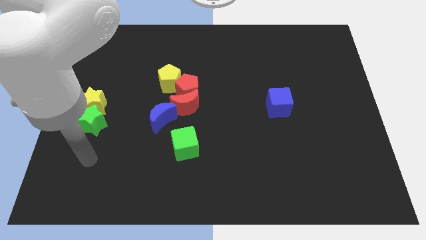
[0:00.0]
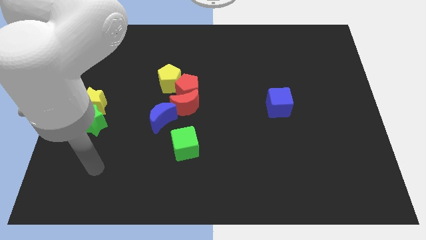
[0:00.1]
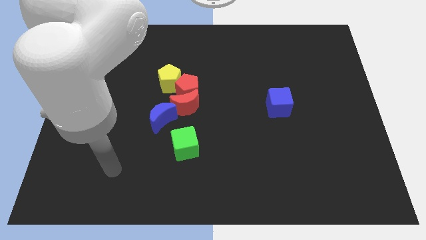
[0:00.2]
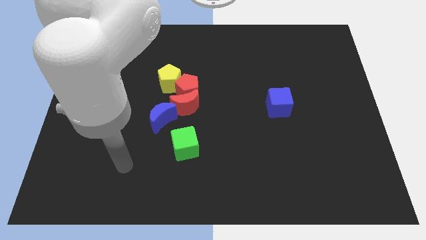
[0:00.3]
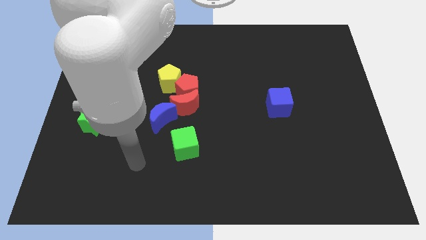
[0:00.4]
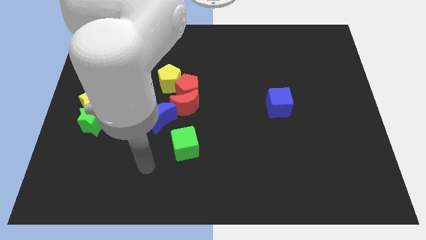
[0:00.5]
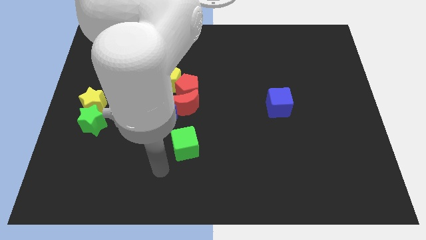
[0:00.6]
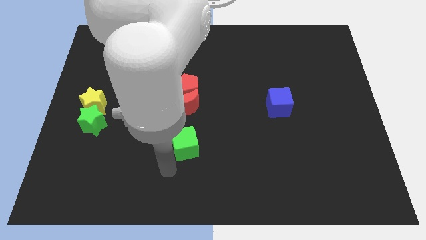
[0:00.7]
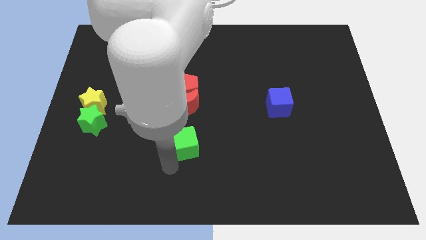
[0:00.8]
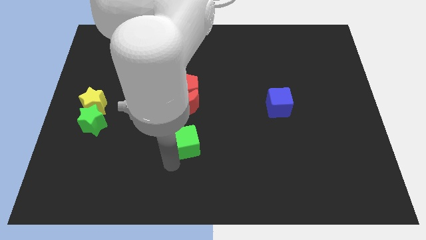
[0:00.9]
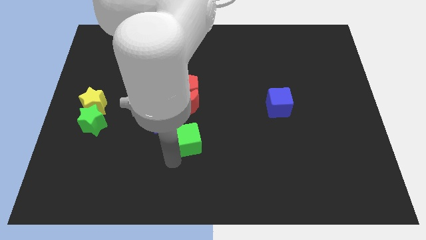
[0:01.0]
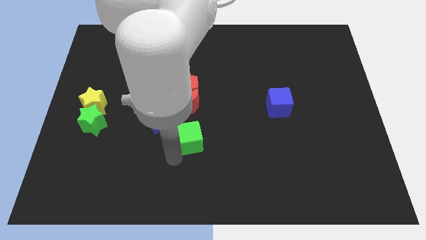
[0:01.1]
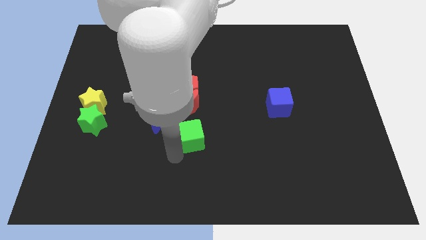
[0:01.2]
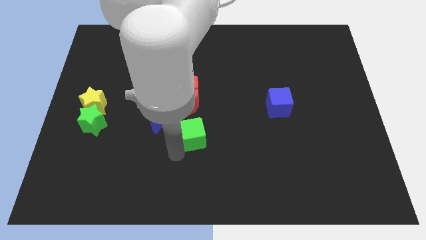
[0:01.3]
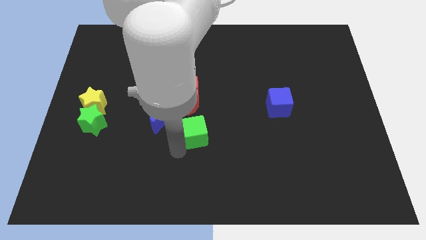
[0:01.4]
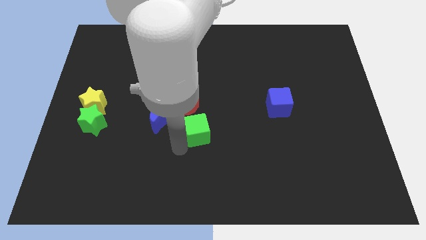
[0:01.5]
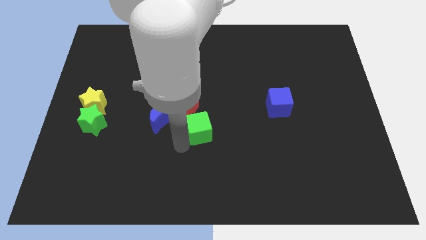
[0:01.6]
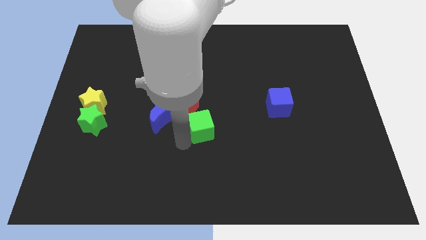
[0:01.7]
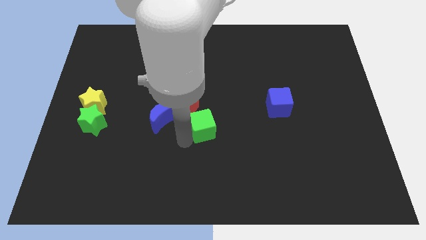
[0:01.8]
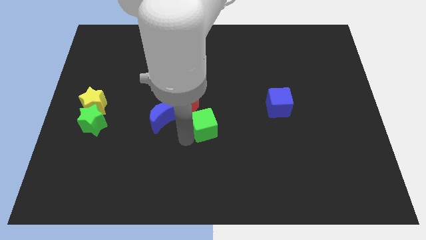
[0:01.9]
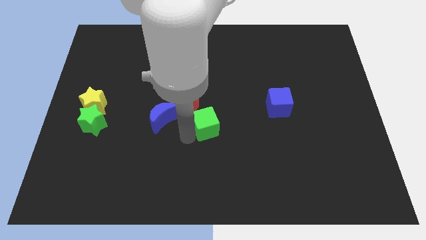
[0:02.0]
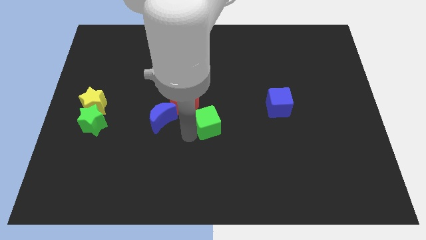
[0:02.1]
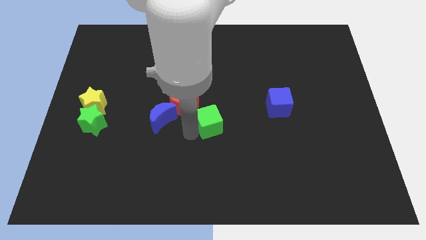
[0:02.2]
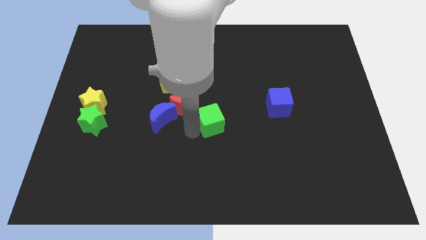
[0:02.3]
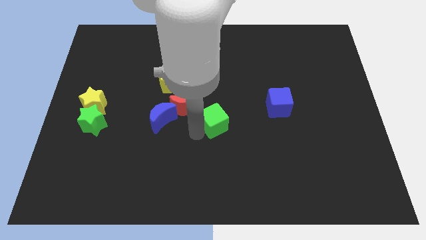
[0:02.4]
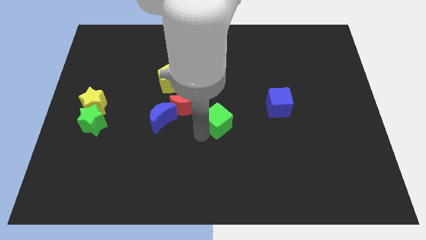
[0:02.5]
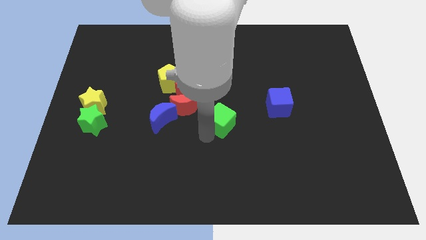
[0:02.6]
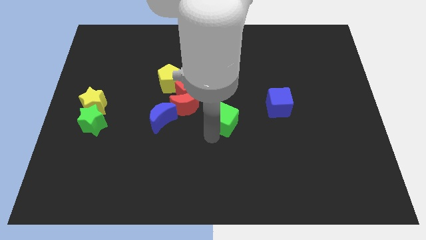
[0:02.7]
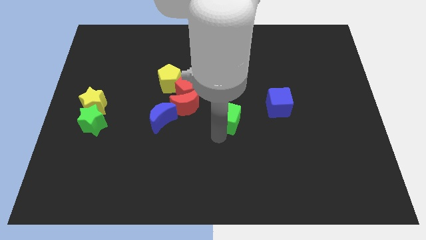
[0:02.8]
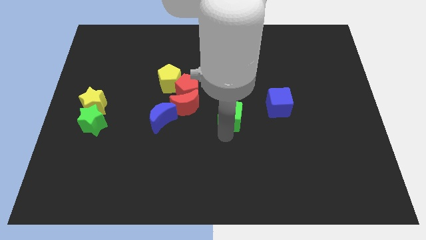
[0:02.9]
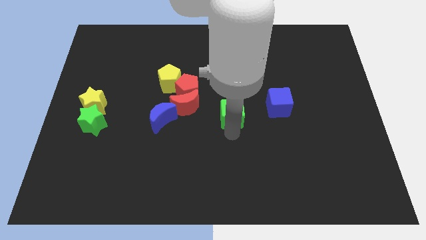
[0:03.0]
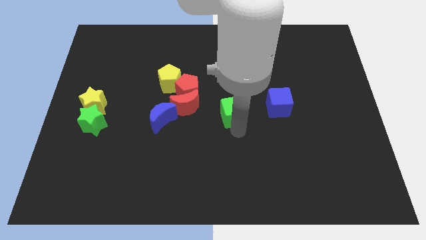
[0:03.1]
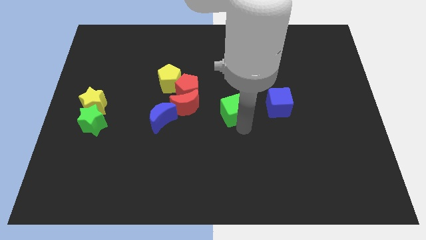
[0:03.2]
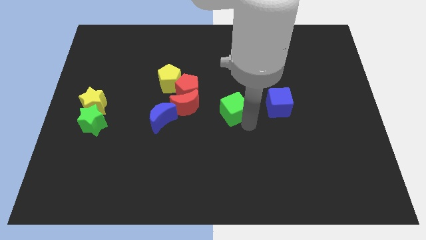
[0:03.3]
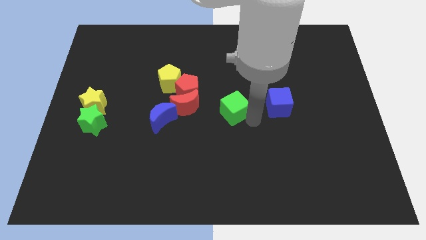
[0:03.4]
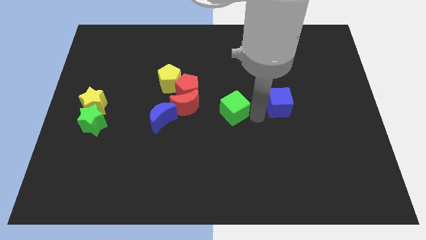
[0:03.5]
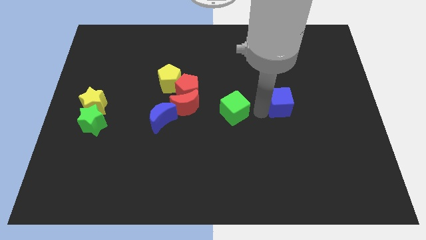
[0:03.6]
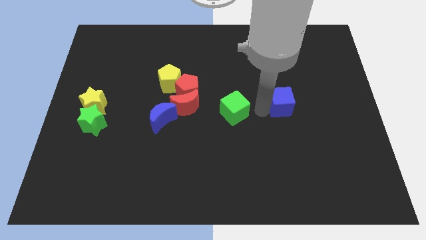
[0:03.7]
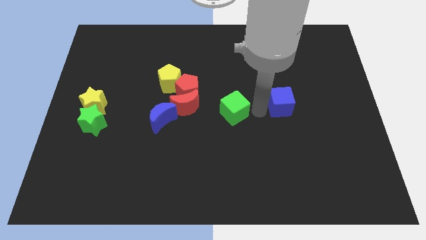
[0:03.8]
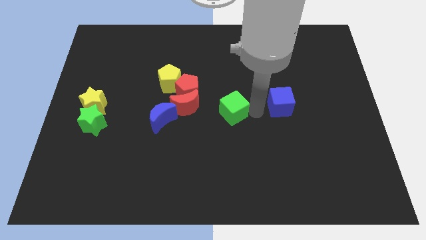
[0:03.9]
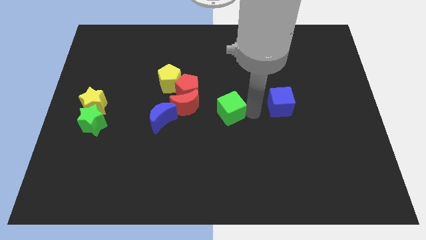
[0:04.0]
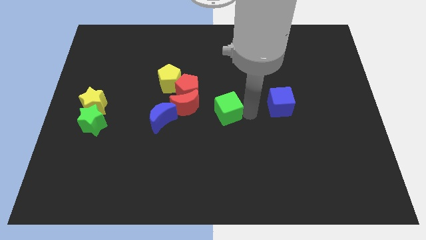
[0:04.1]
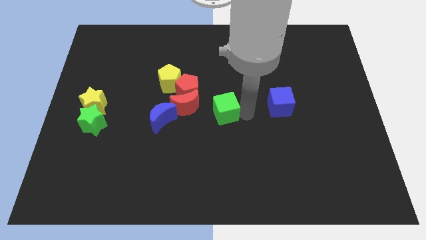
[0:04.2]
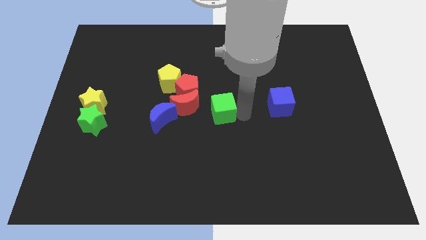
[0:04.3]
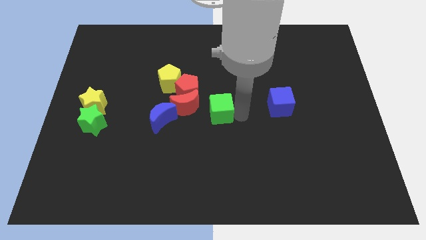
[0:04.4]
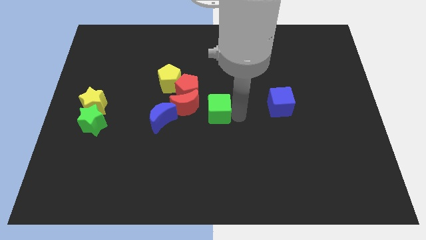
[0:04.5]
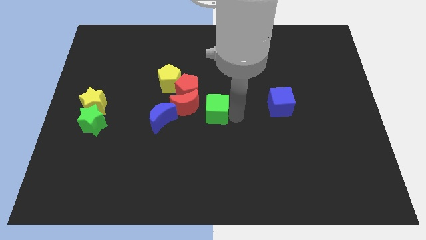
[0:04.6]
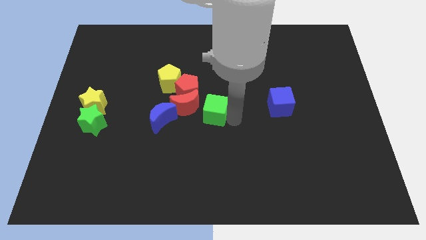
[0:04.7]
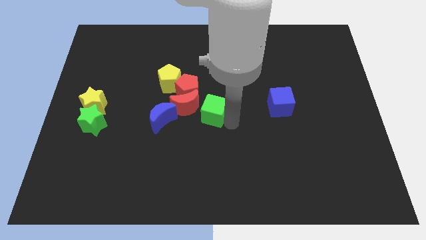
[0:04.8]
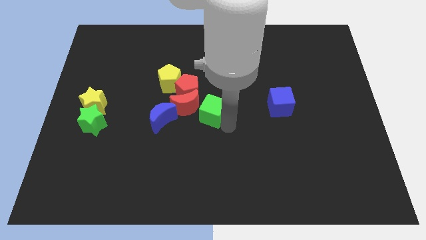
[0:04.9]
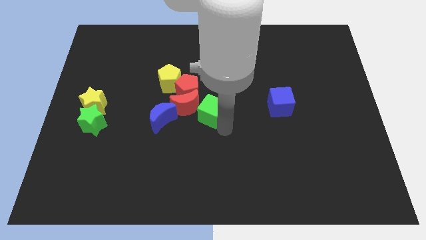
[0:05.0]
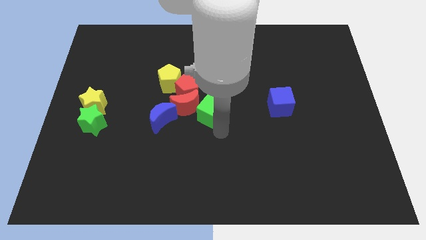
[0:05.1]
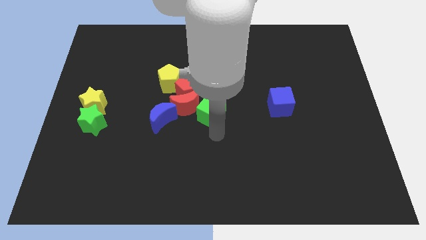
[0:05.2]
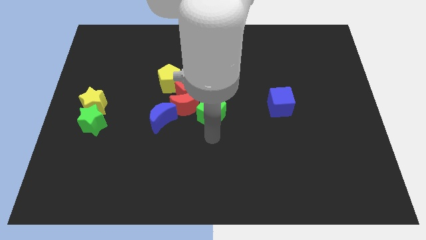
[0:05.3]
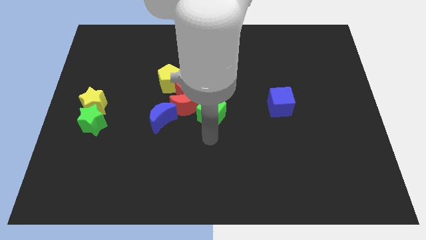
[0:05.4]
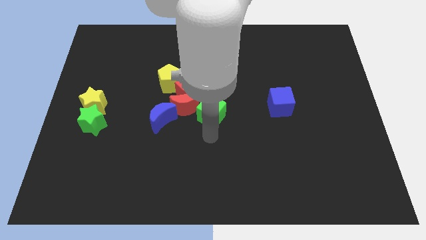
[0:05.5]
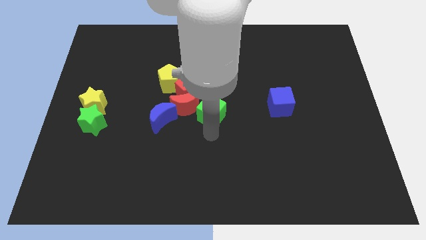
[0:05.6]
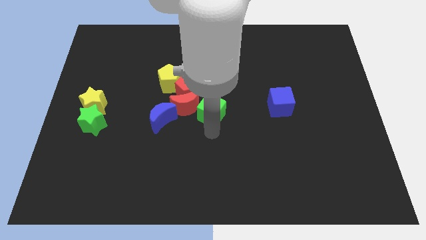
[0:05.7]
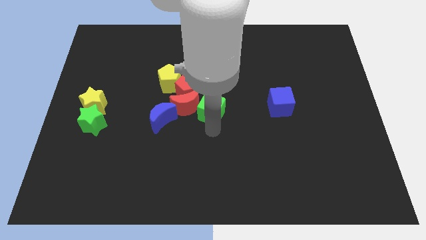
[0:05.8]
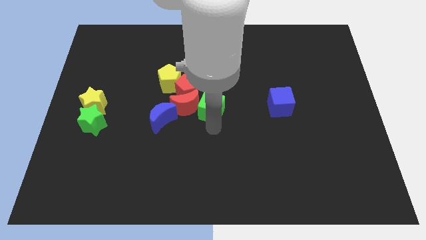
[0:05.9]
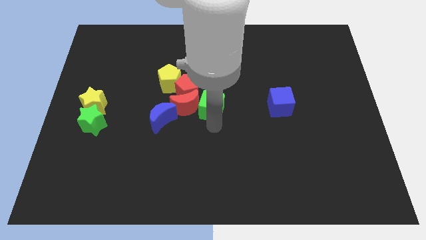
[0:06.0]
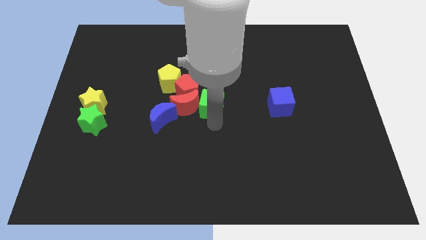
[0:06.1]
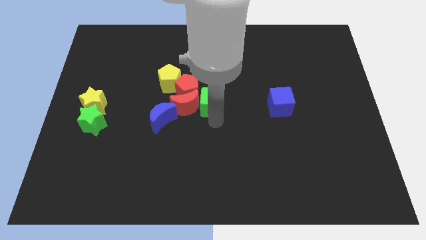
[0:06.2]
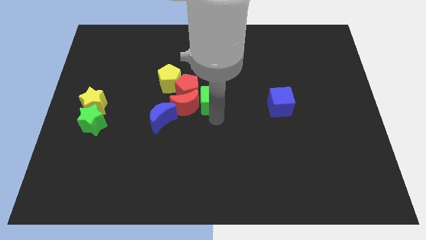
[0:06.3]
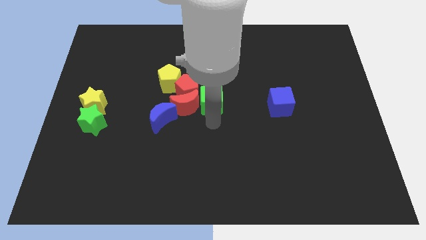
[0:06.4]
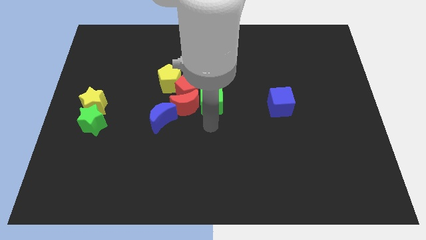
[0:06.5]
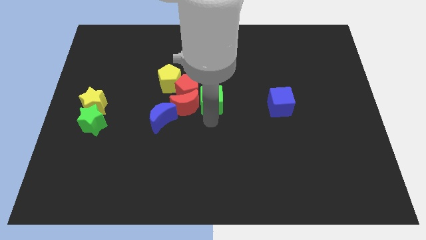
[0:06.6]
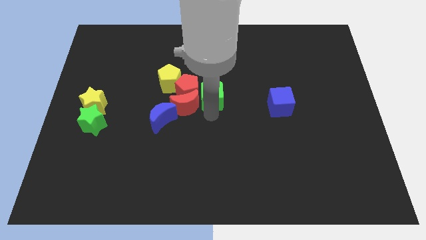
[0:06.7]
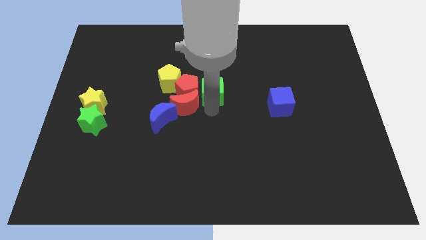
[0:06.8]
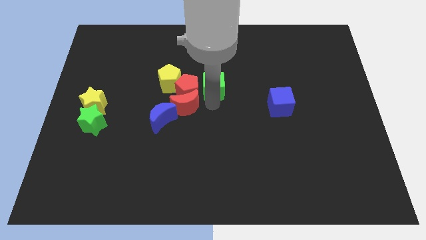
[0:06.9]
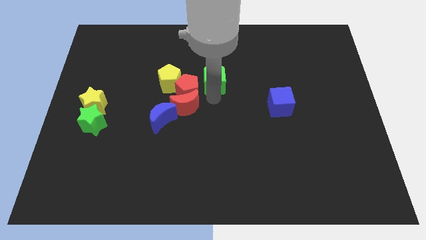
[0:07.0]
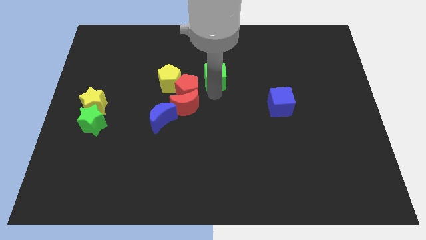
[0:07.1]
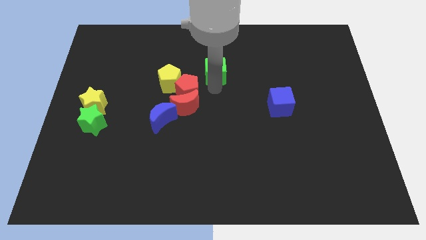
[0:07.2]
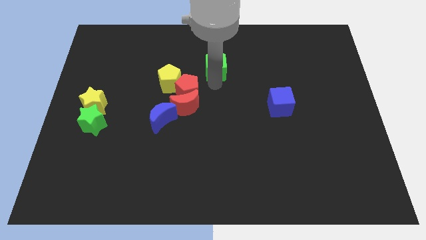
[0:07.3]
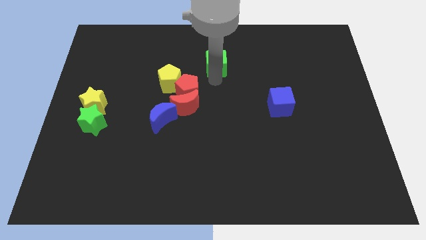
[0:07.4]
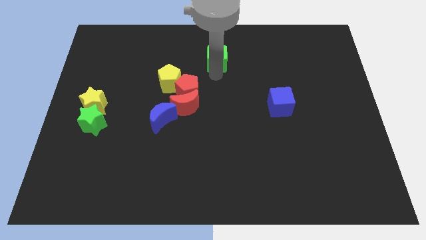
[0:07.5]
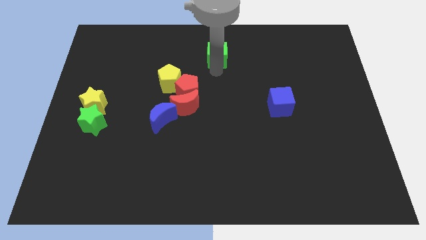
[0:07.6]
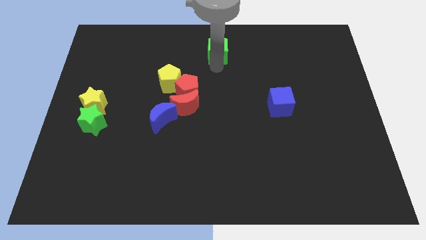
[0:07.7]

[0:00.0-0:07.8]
move the green cube to the top
